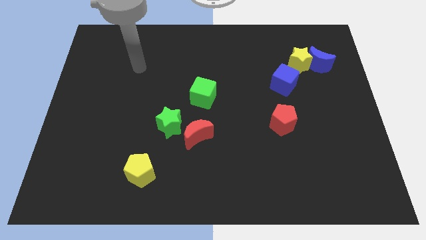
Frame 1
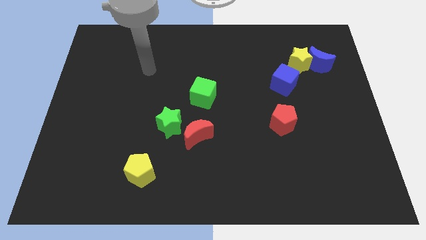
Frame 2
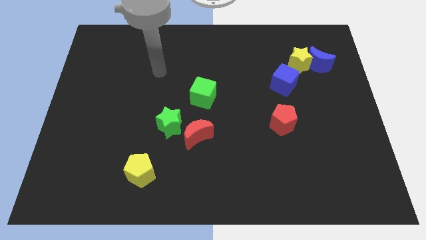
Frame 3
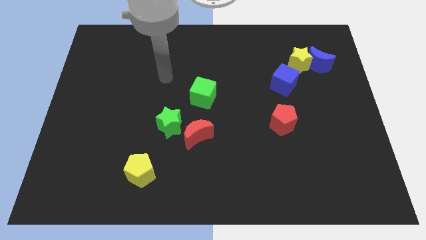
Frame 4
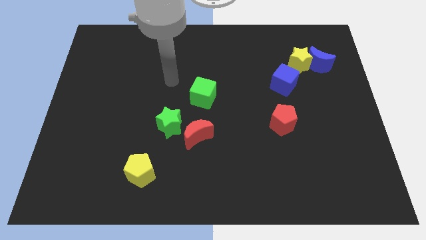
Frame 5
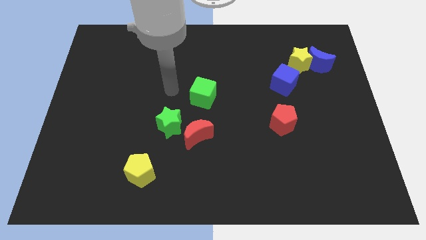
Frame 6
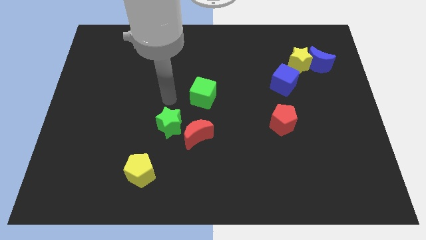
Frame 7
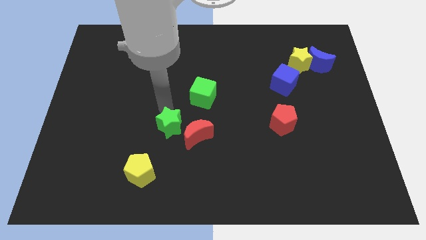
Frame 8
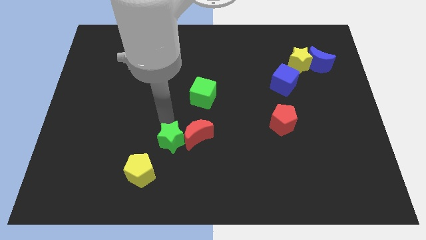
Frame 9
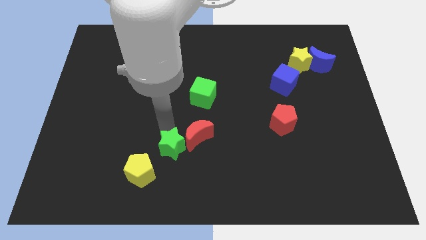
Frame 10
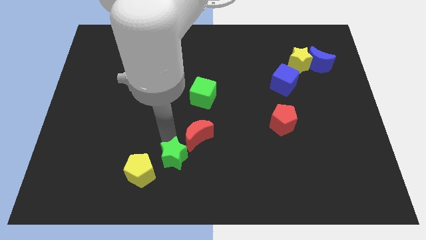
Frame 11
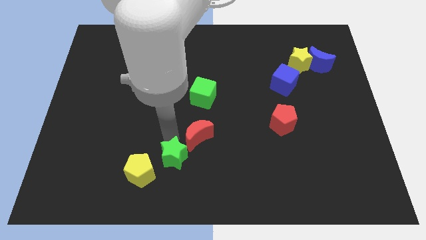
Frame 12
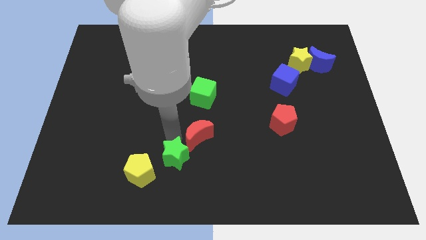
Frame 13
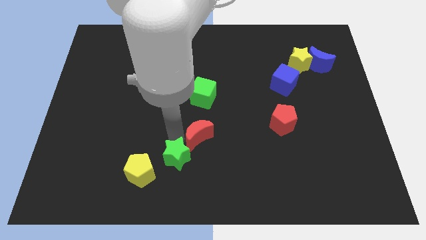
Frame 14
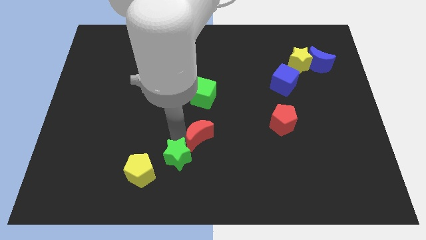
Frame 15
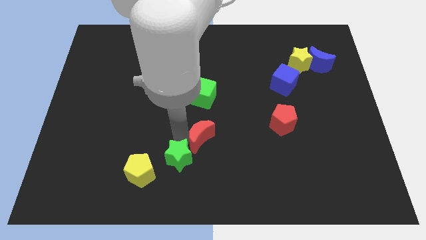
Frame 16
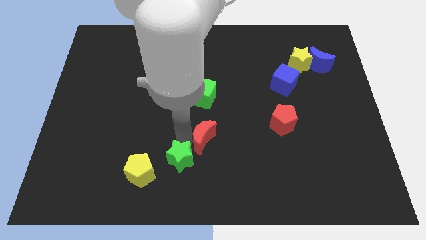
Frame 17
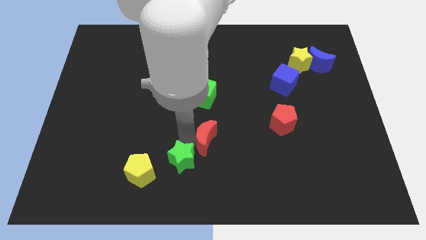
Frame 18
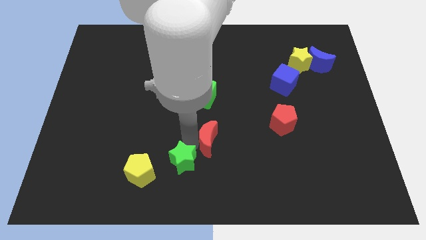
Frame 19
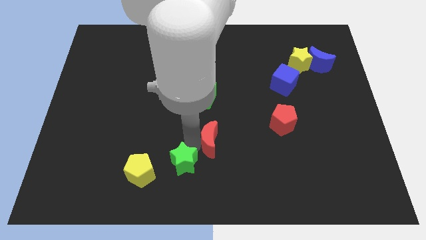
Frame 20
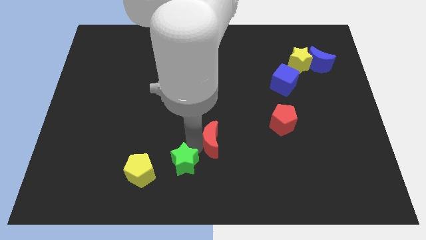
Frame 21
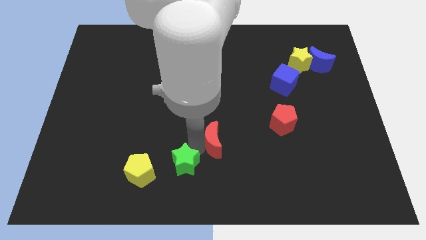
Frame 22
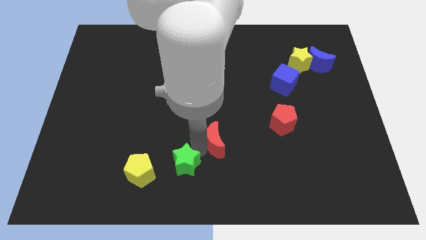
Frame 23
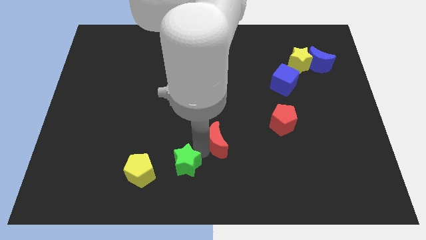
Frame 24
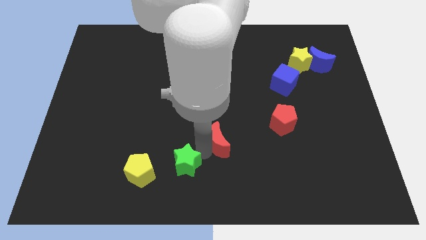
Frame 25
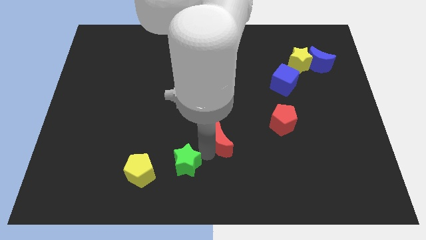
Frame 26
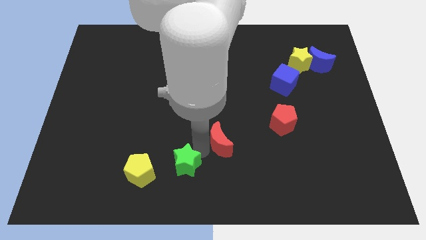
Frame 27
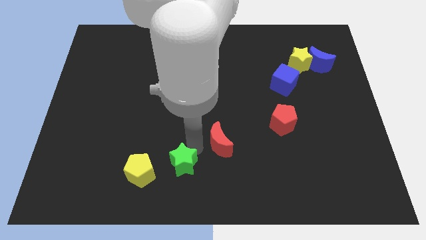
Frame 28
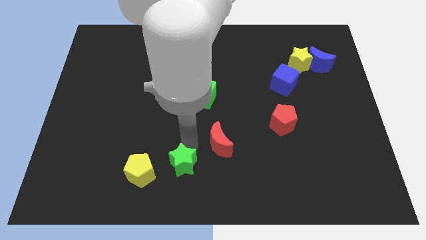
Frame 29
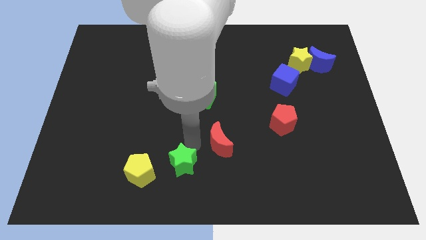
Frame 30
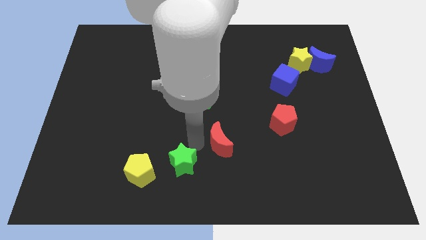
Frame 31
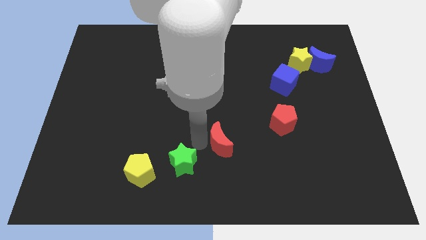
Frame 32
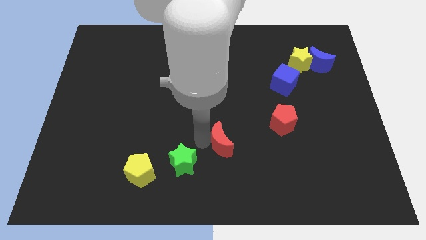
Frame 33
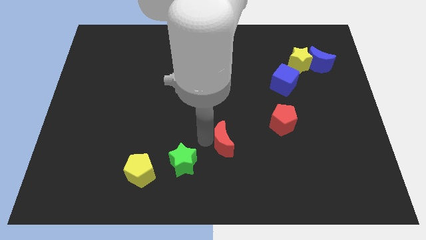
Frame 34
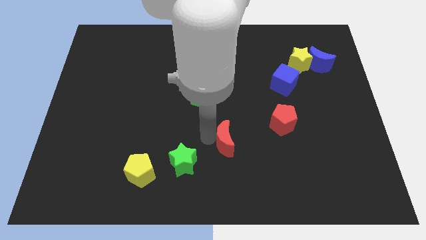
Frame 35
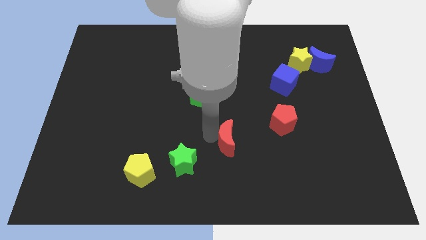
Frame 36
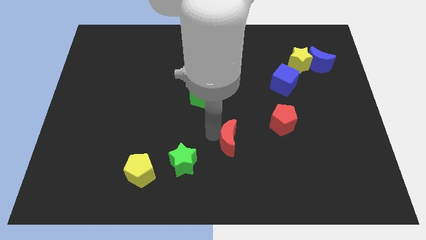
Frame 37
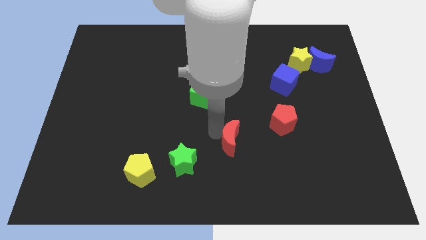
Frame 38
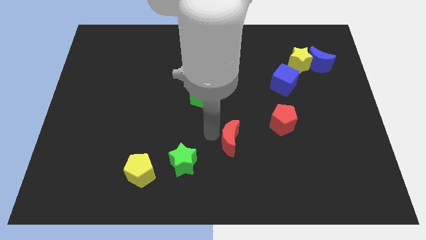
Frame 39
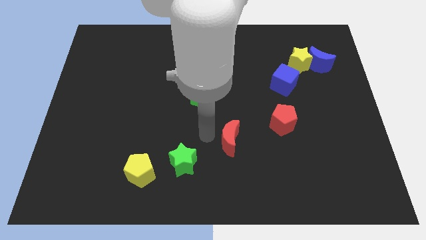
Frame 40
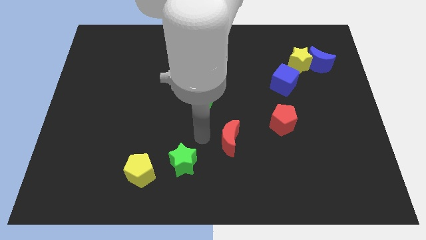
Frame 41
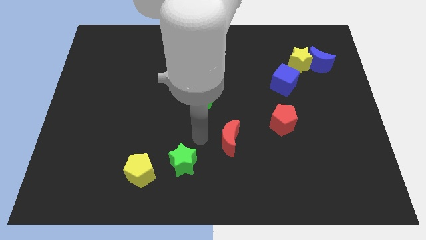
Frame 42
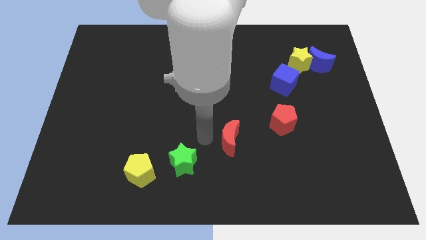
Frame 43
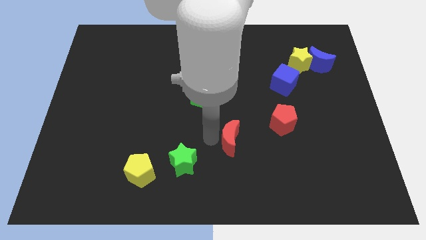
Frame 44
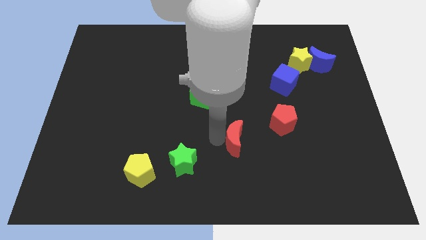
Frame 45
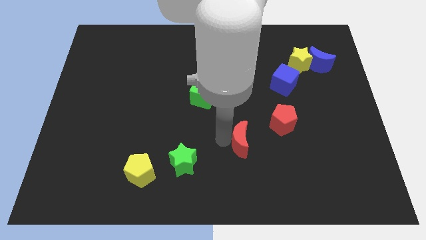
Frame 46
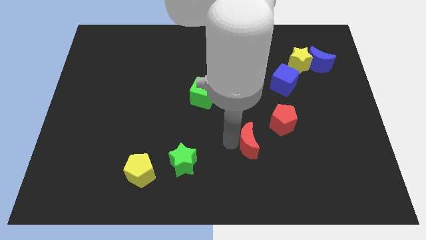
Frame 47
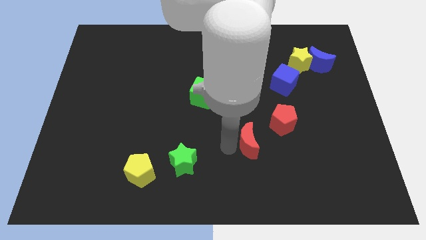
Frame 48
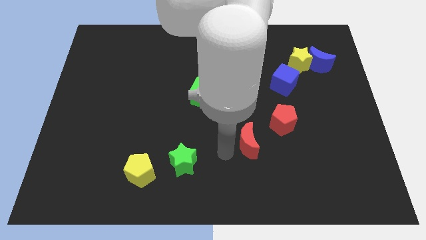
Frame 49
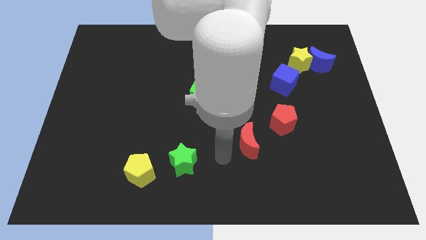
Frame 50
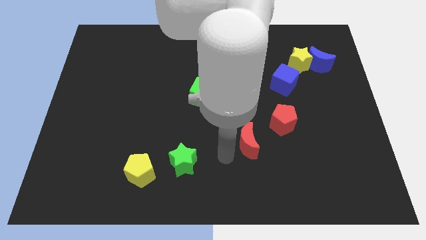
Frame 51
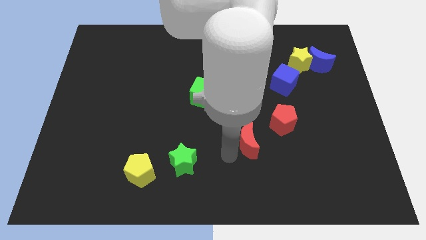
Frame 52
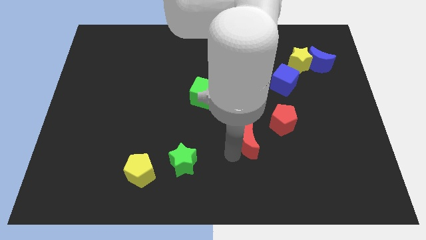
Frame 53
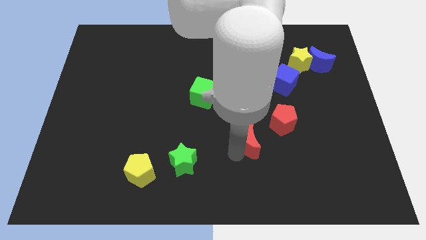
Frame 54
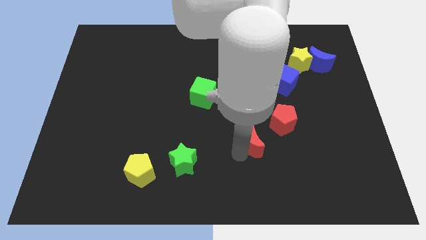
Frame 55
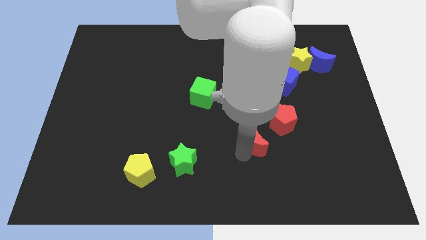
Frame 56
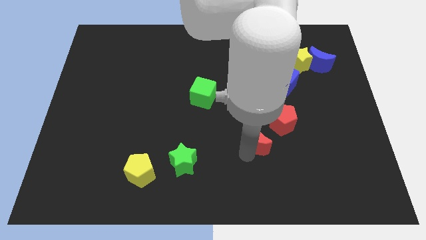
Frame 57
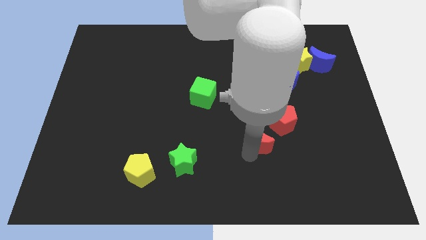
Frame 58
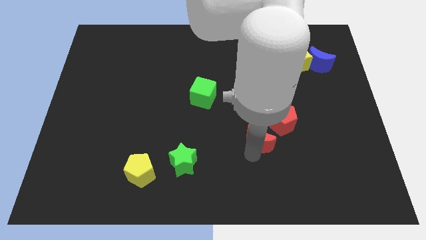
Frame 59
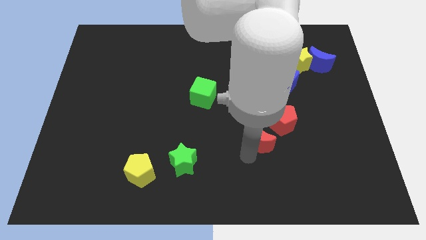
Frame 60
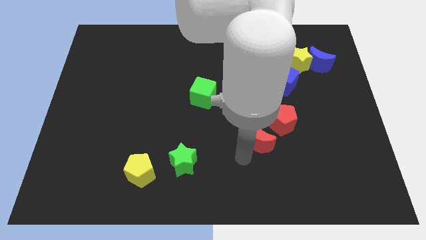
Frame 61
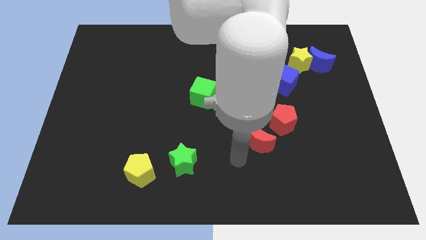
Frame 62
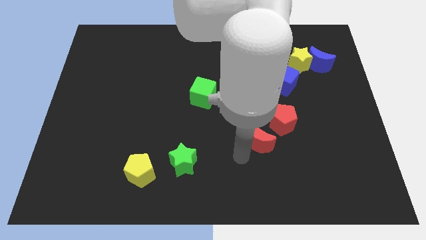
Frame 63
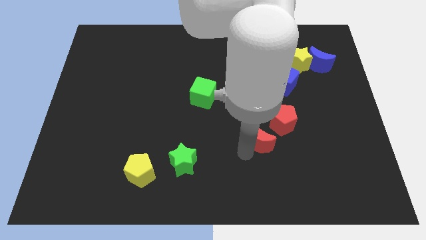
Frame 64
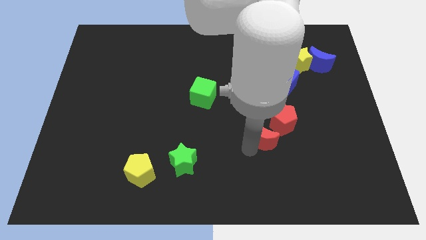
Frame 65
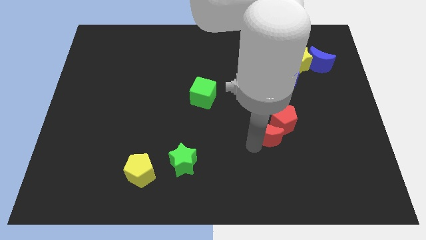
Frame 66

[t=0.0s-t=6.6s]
put the red moon next to the red pentagon
